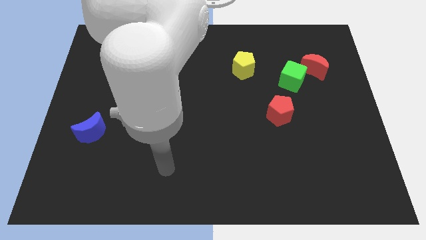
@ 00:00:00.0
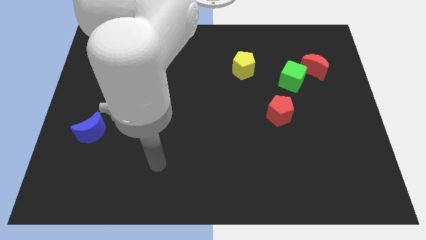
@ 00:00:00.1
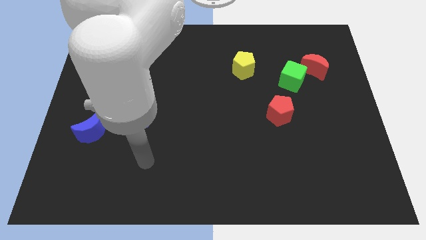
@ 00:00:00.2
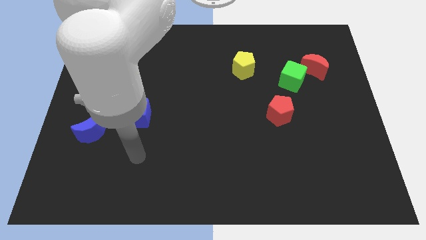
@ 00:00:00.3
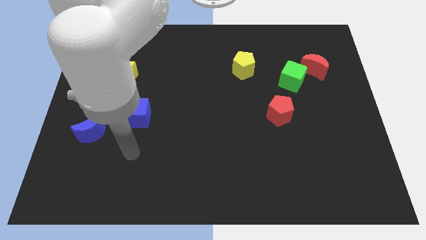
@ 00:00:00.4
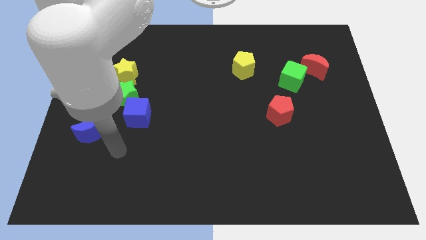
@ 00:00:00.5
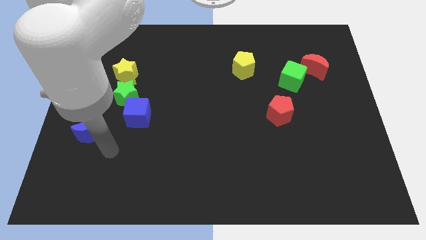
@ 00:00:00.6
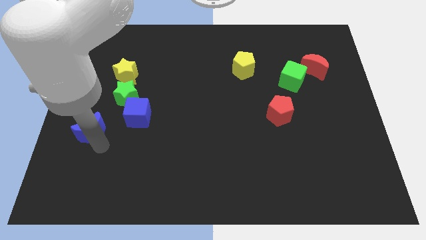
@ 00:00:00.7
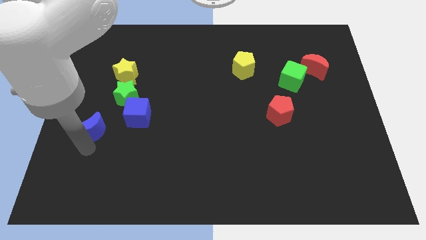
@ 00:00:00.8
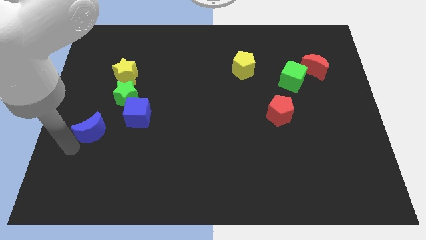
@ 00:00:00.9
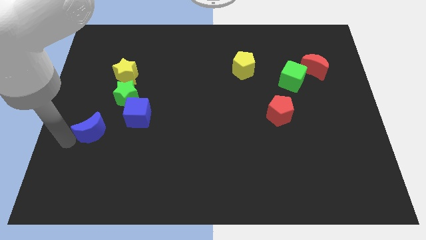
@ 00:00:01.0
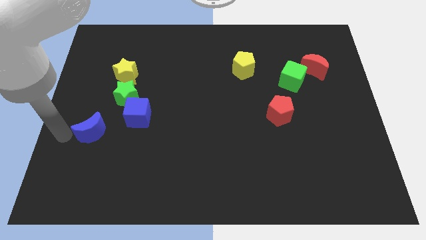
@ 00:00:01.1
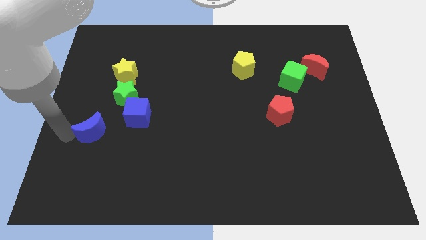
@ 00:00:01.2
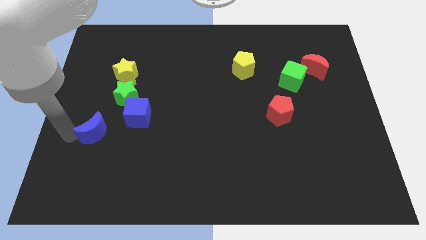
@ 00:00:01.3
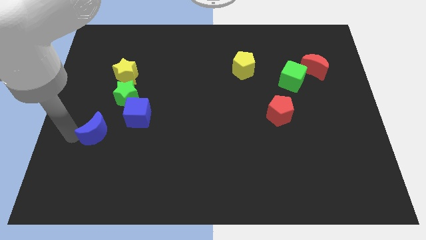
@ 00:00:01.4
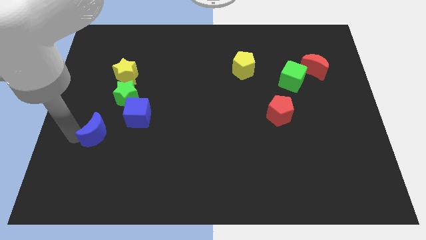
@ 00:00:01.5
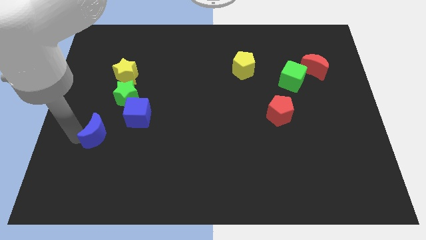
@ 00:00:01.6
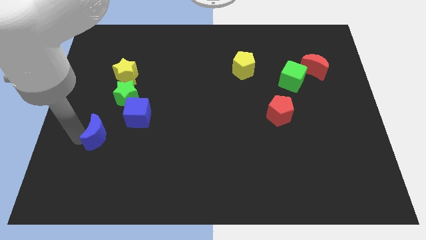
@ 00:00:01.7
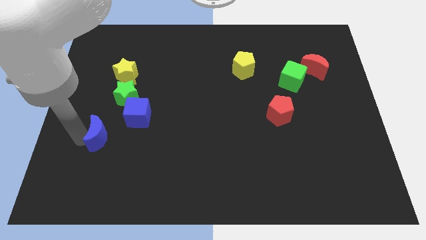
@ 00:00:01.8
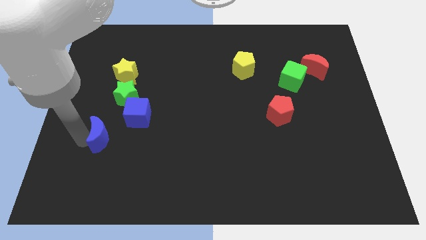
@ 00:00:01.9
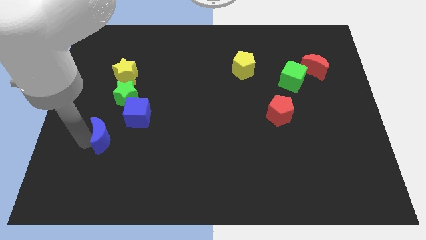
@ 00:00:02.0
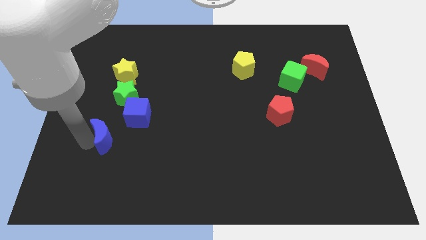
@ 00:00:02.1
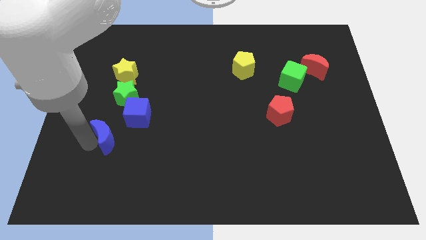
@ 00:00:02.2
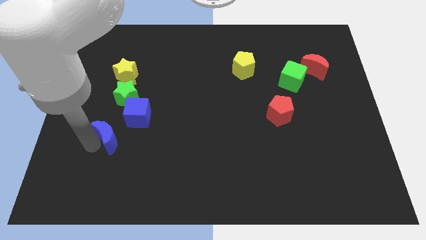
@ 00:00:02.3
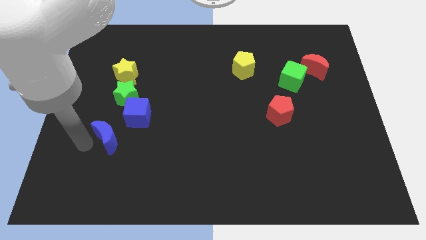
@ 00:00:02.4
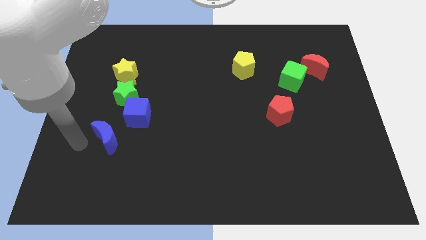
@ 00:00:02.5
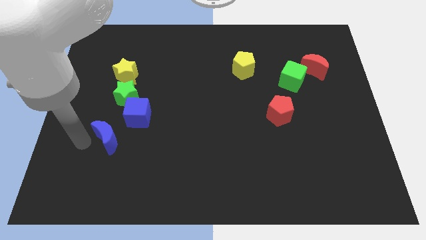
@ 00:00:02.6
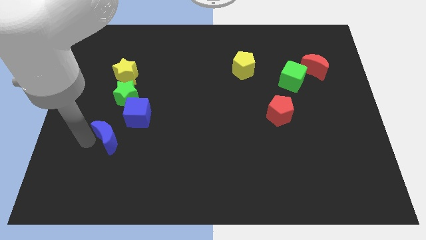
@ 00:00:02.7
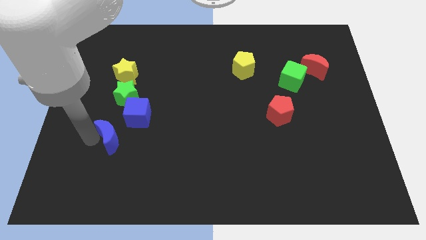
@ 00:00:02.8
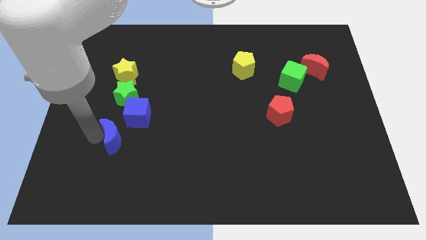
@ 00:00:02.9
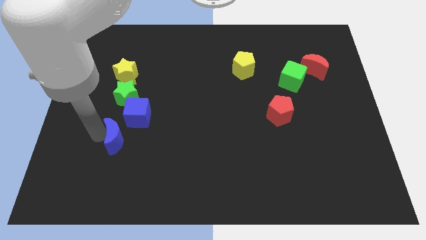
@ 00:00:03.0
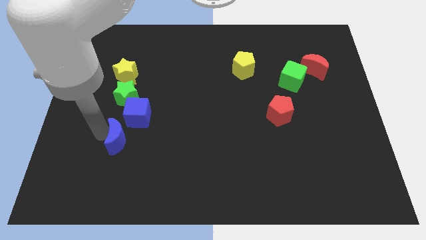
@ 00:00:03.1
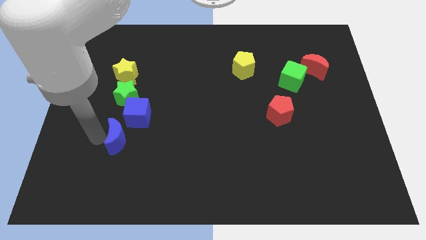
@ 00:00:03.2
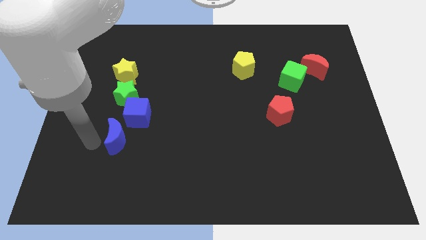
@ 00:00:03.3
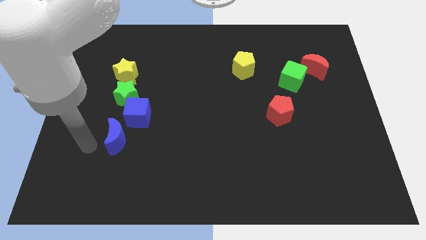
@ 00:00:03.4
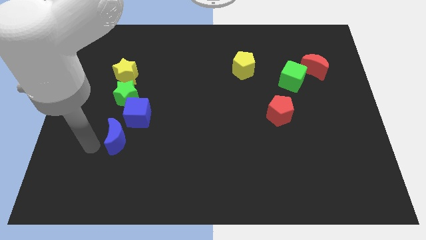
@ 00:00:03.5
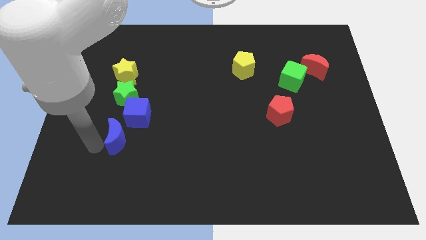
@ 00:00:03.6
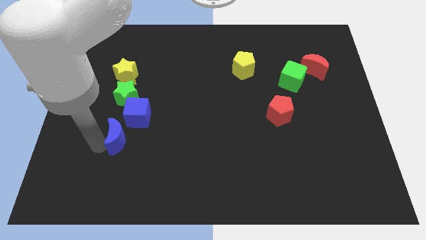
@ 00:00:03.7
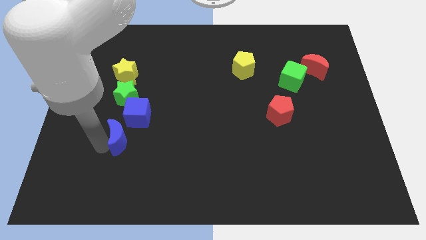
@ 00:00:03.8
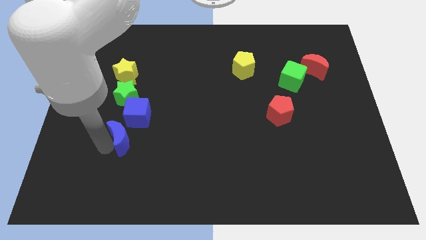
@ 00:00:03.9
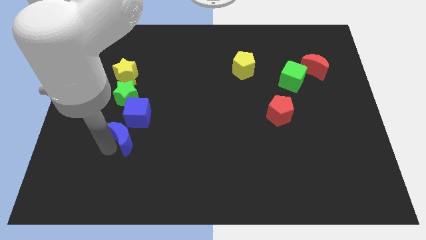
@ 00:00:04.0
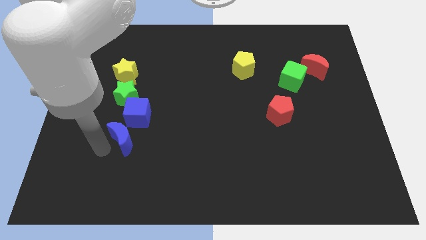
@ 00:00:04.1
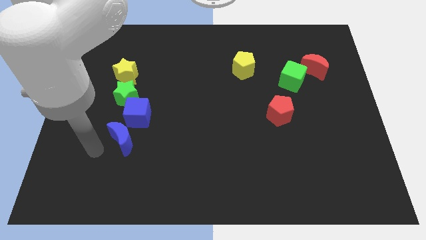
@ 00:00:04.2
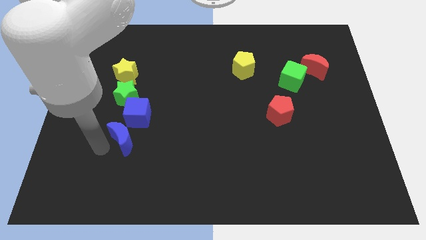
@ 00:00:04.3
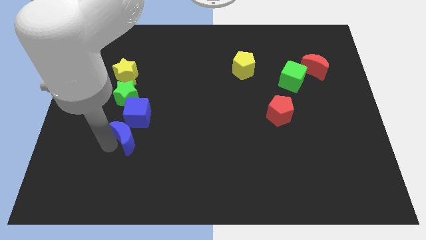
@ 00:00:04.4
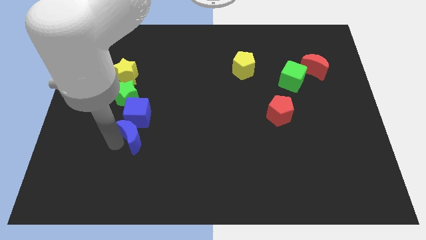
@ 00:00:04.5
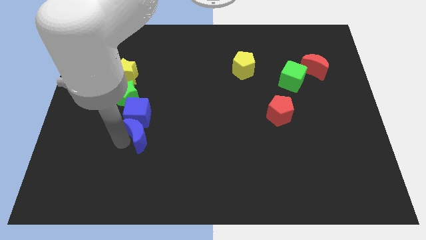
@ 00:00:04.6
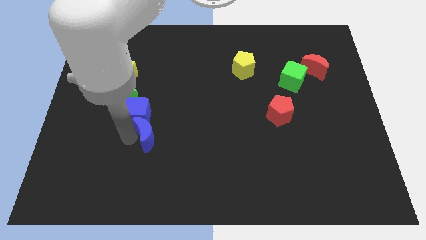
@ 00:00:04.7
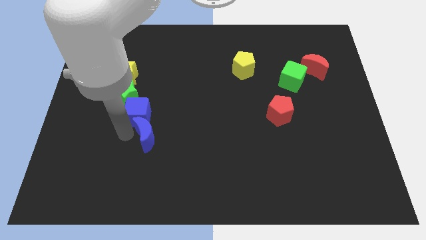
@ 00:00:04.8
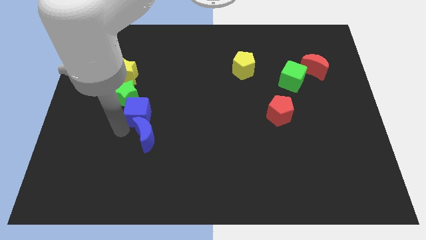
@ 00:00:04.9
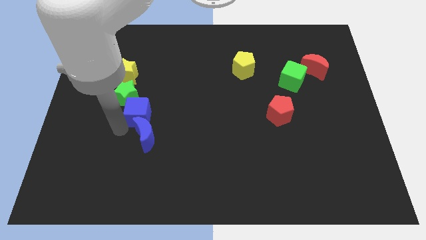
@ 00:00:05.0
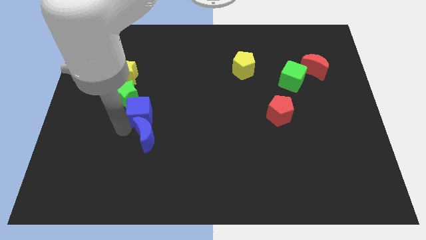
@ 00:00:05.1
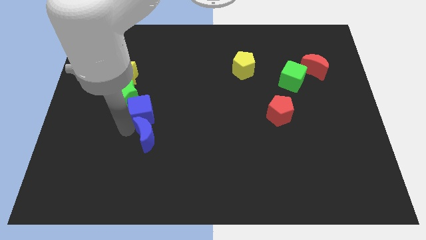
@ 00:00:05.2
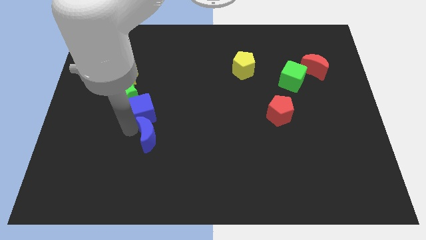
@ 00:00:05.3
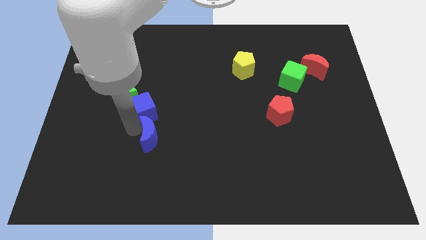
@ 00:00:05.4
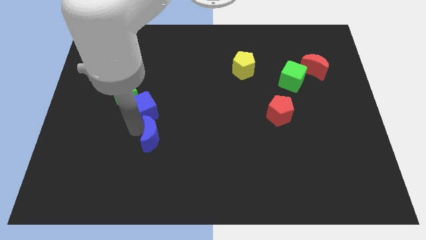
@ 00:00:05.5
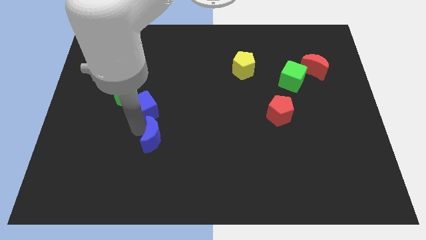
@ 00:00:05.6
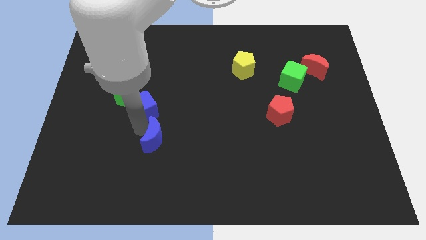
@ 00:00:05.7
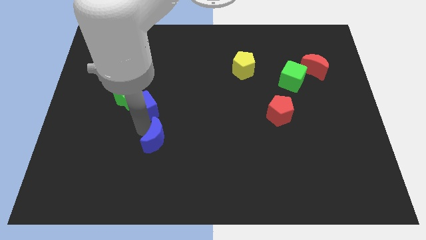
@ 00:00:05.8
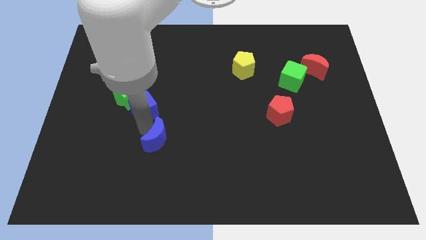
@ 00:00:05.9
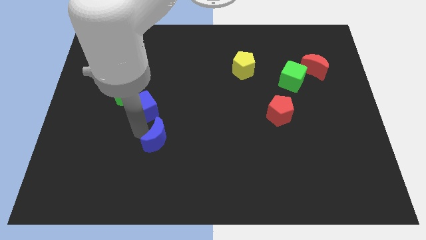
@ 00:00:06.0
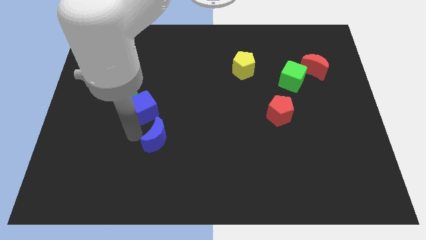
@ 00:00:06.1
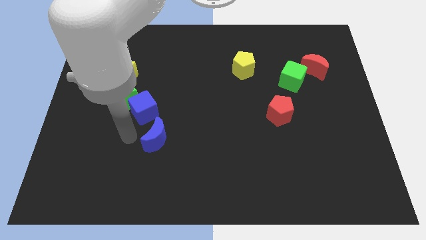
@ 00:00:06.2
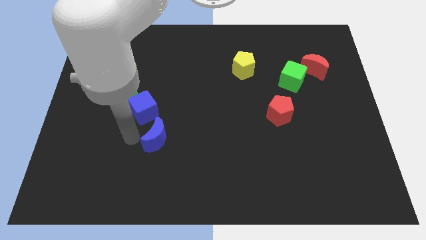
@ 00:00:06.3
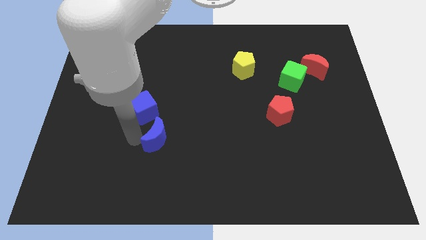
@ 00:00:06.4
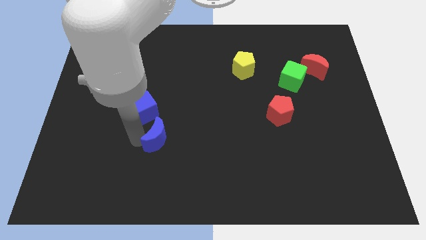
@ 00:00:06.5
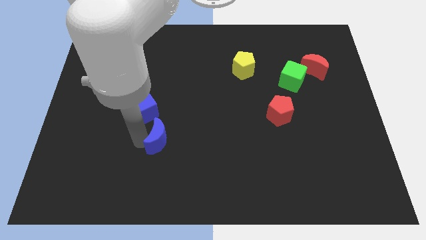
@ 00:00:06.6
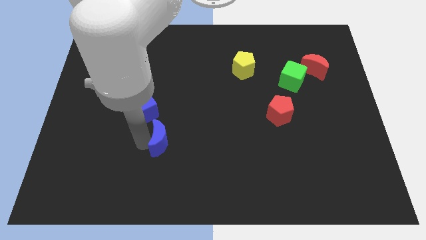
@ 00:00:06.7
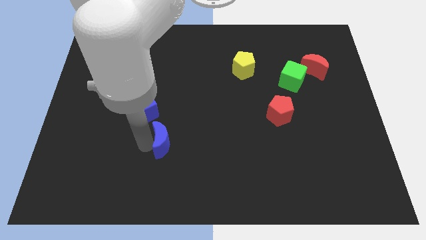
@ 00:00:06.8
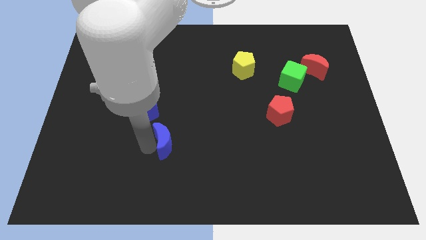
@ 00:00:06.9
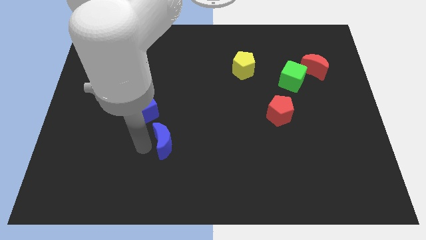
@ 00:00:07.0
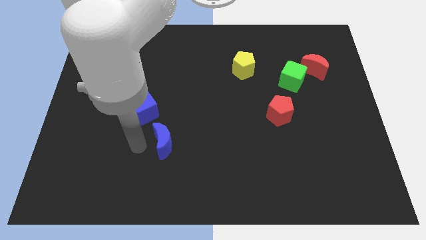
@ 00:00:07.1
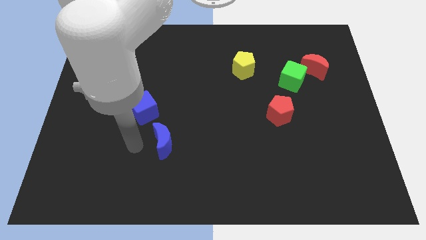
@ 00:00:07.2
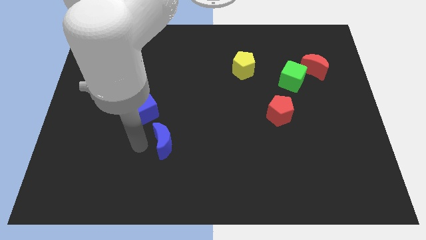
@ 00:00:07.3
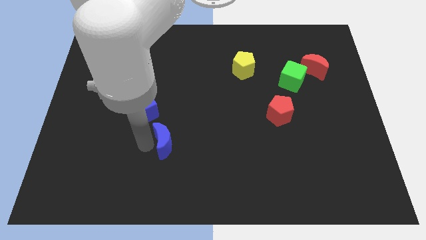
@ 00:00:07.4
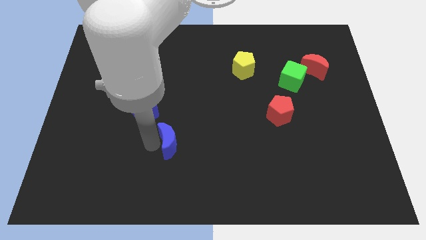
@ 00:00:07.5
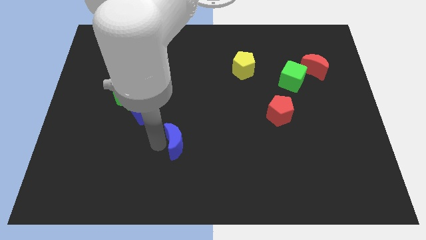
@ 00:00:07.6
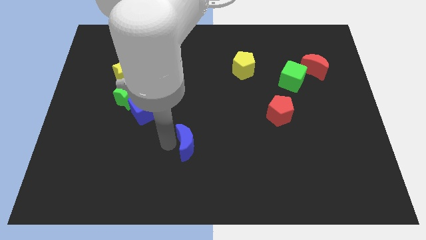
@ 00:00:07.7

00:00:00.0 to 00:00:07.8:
slide the blue moon to the right
